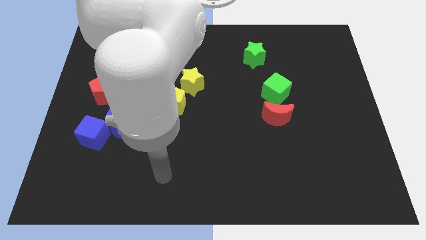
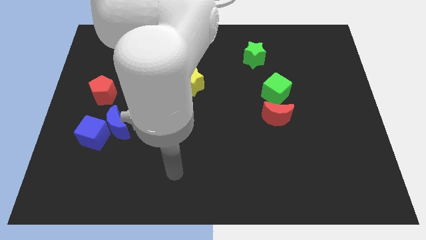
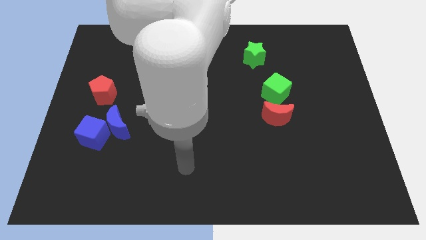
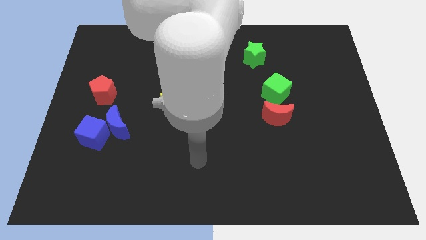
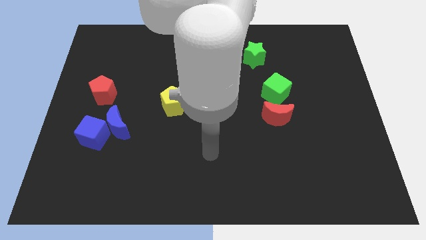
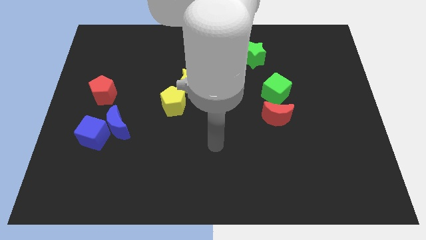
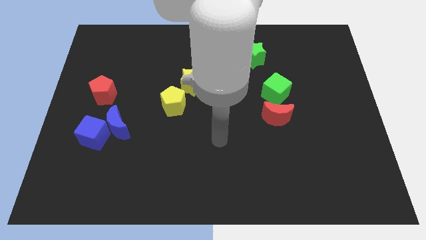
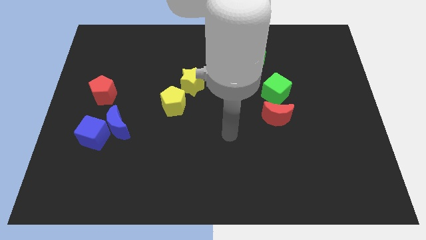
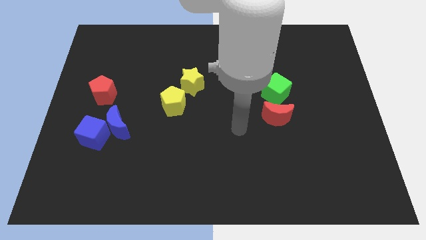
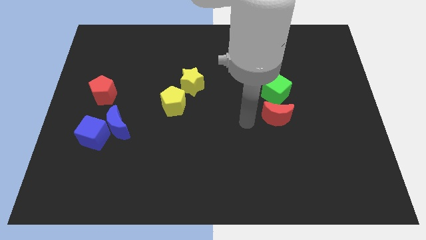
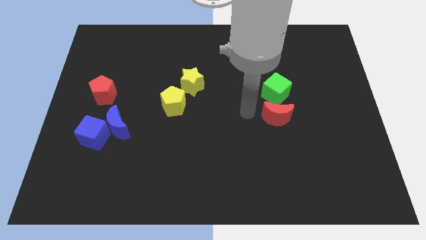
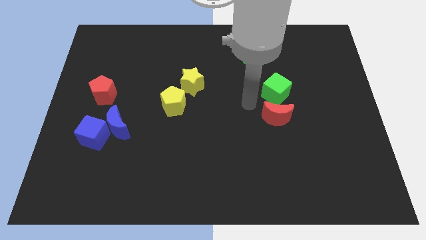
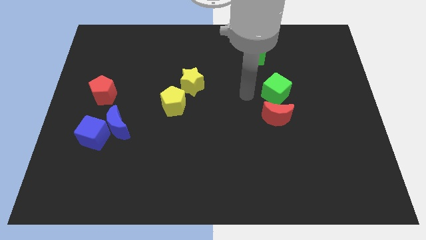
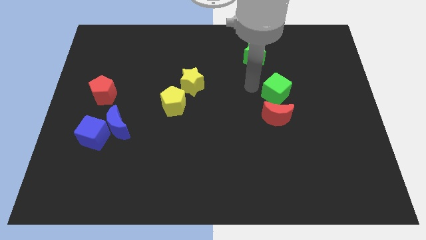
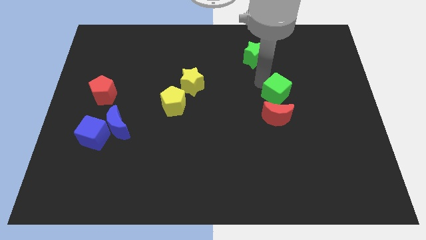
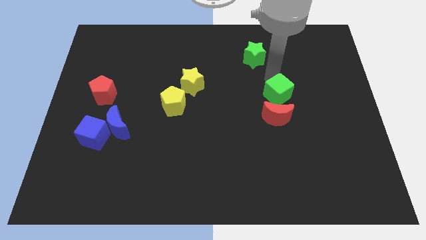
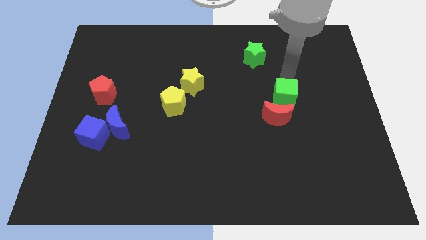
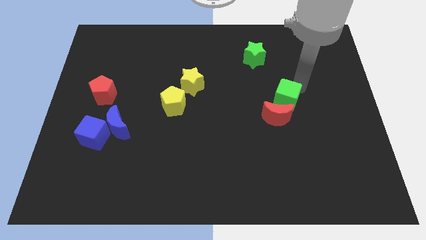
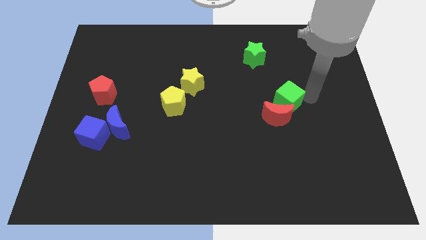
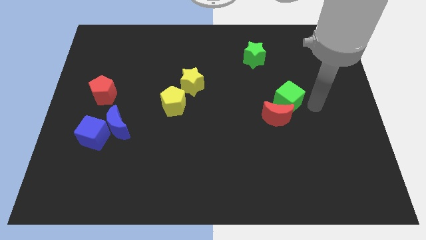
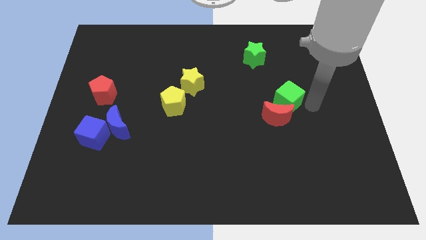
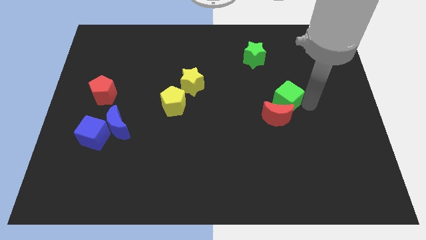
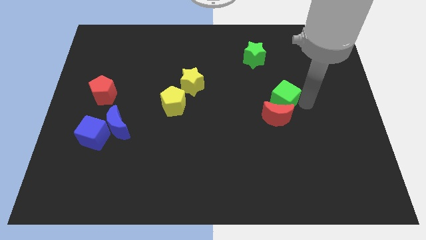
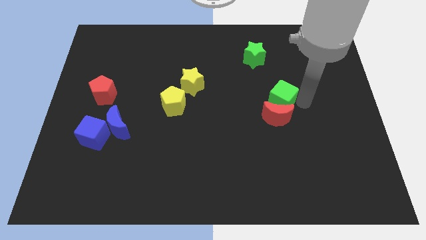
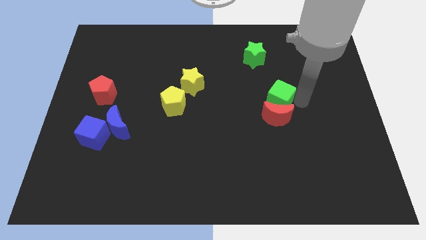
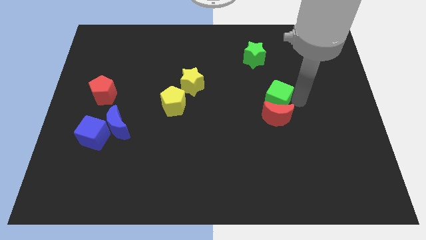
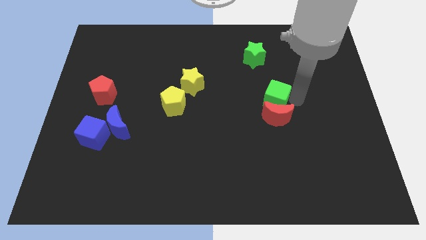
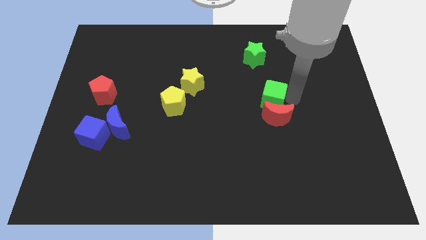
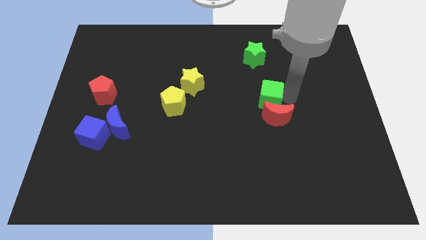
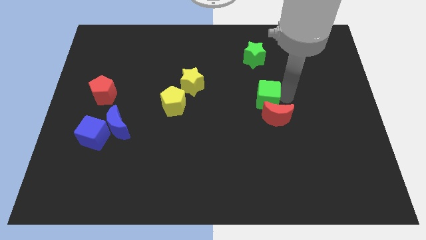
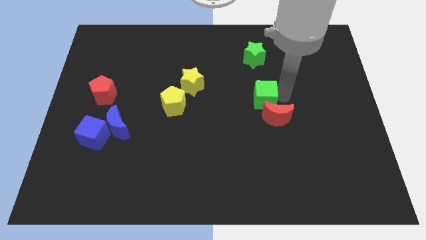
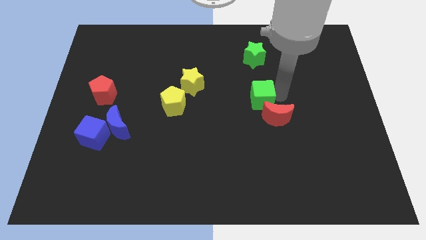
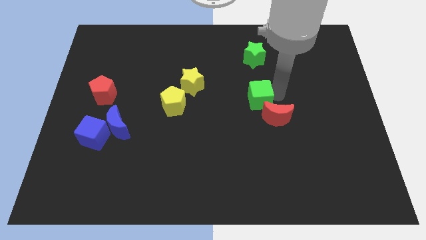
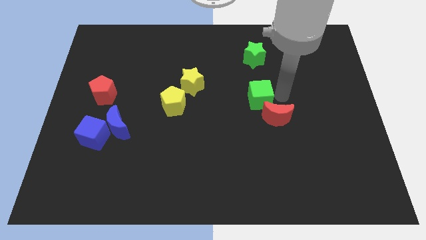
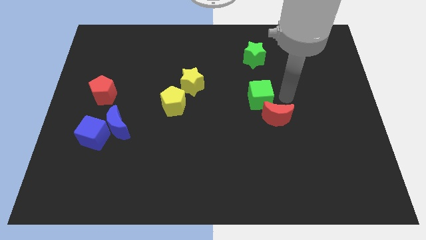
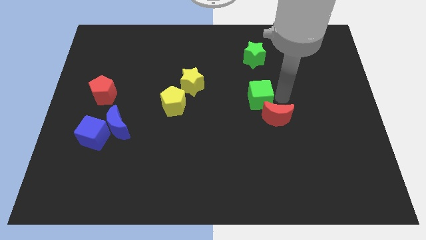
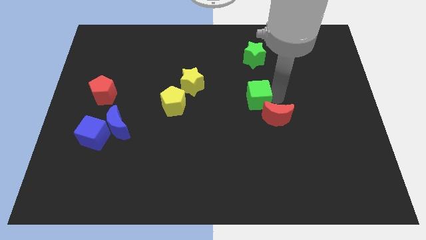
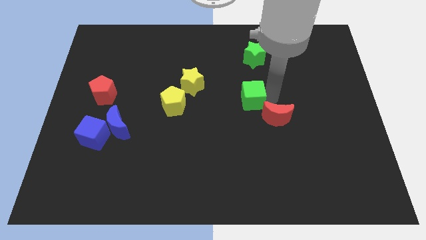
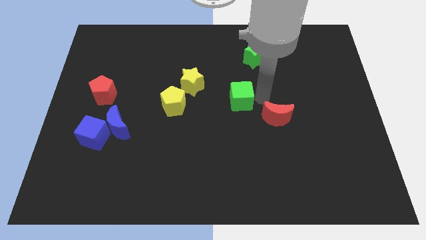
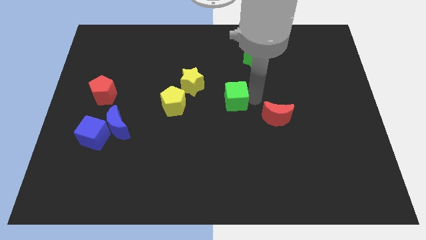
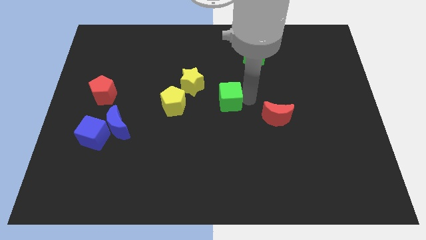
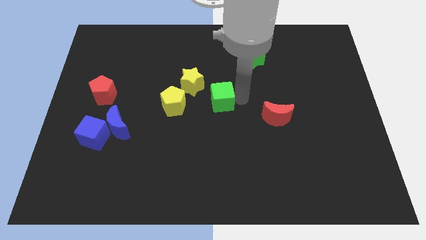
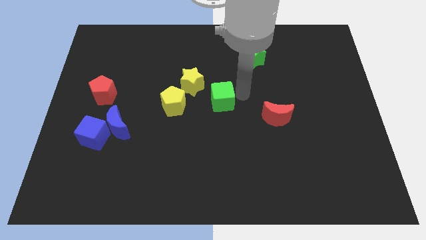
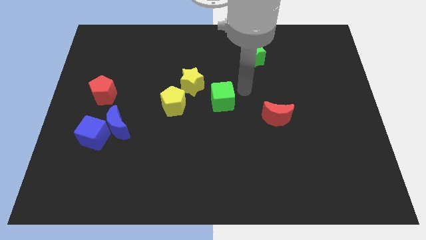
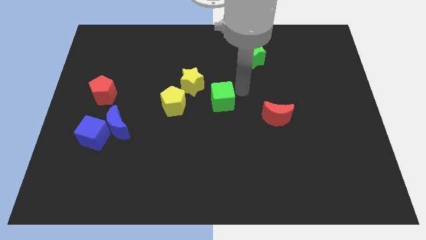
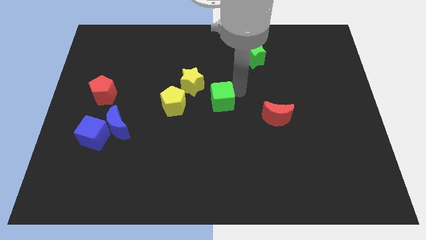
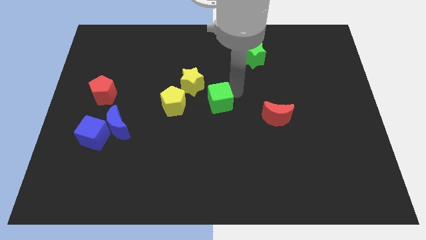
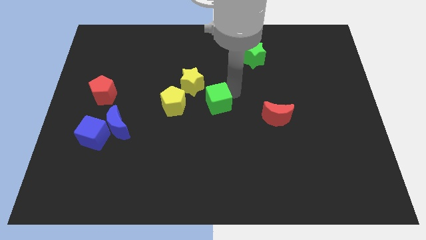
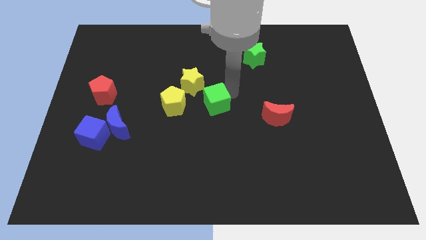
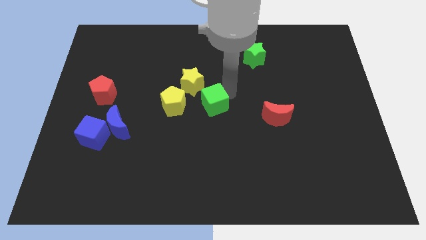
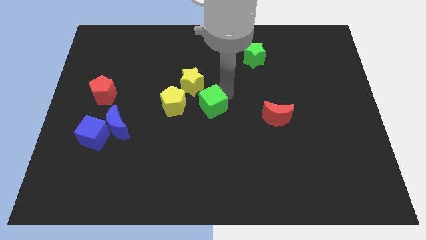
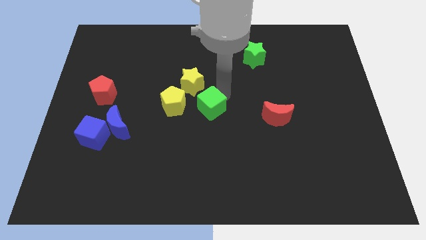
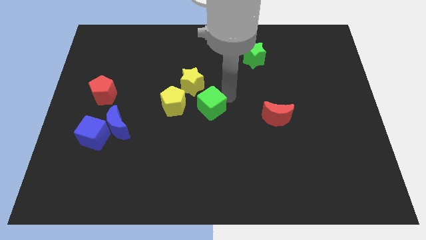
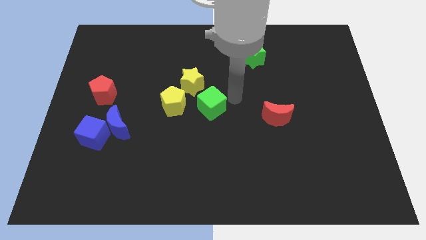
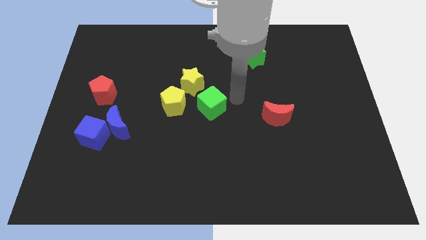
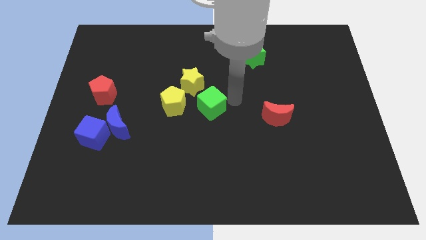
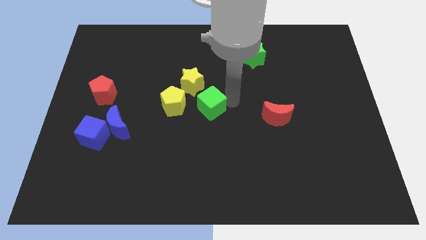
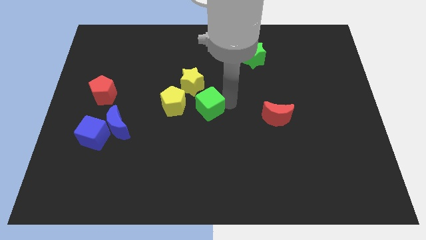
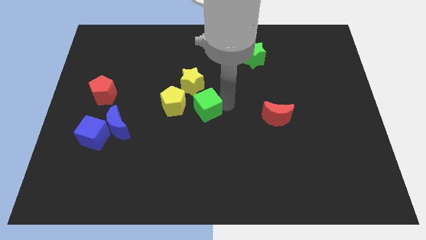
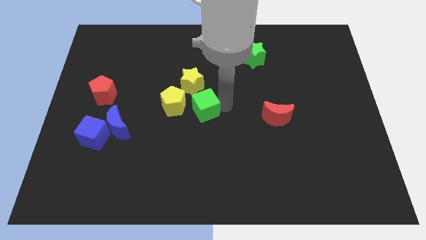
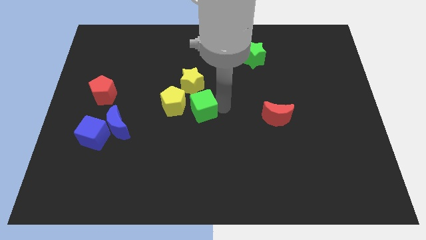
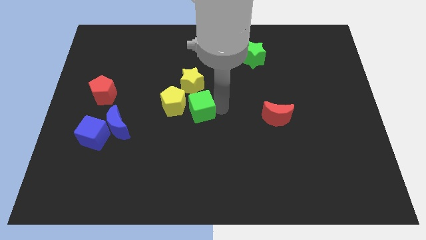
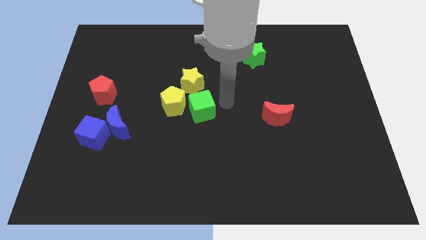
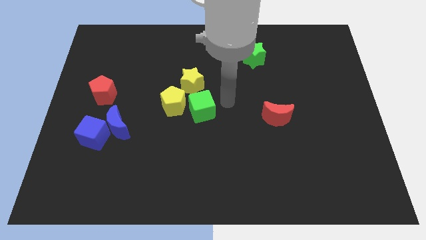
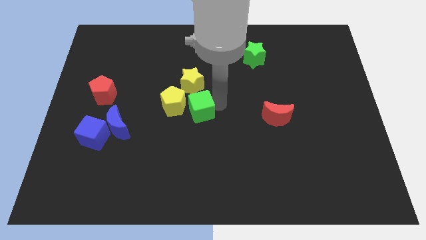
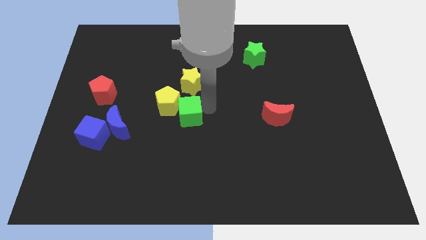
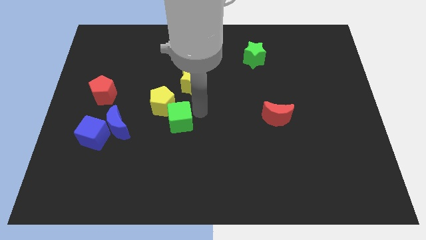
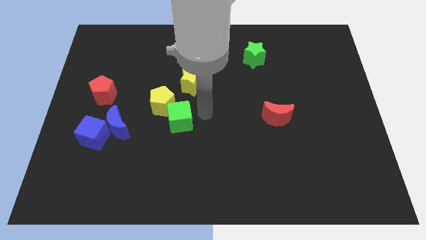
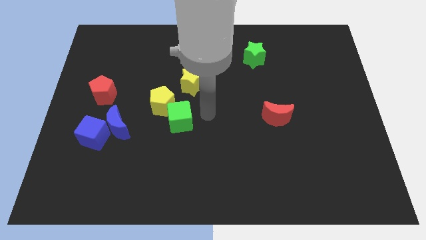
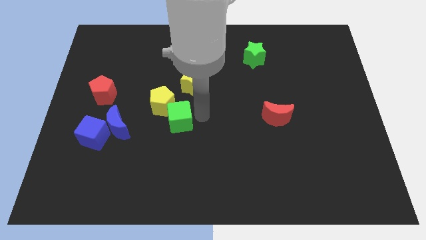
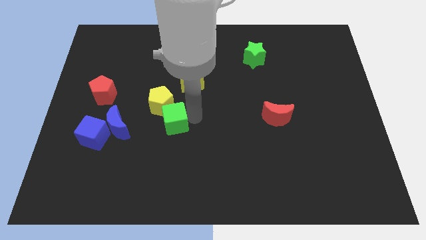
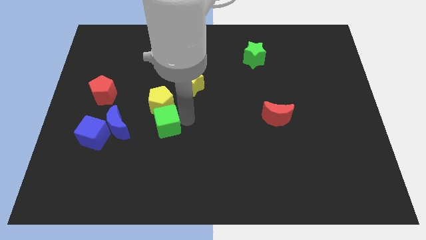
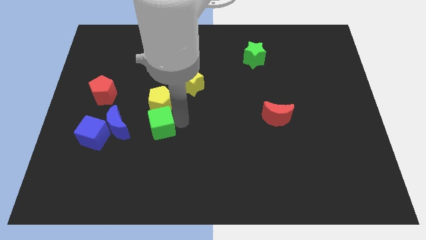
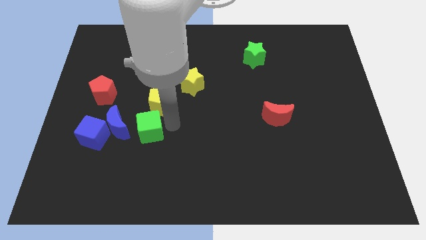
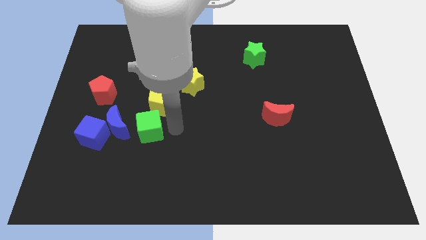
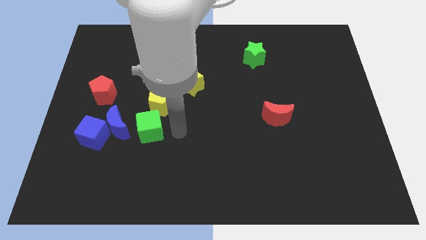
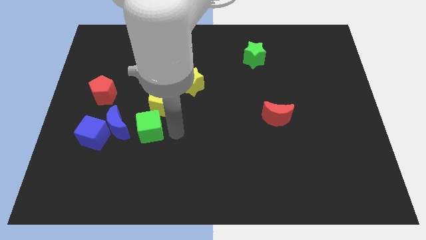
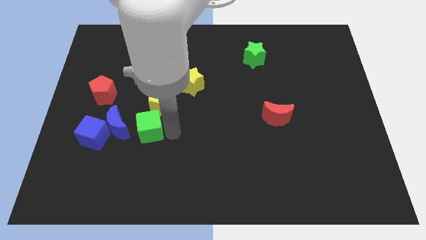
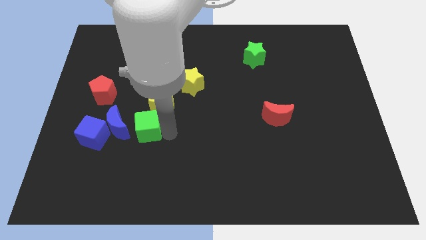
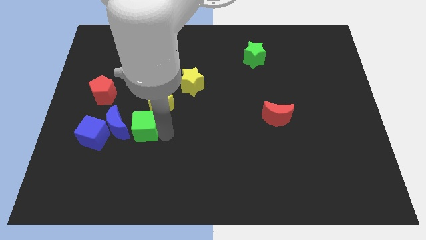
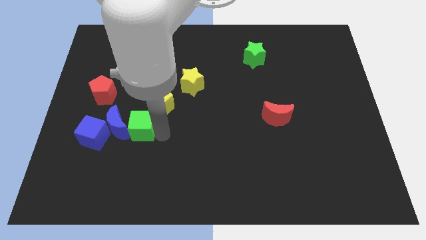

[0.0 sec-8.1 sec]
push the green cube next to the blue moon

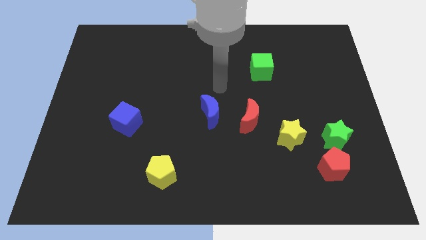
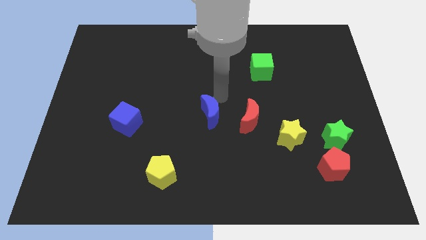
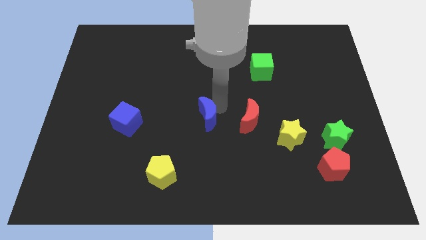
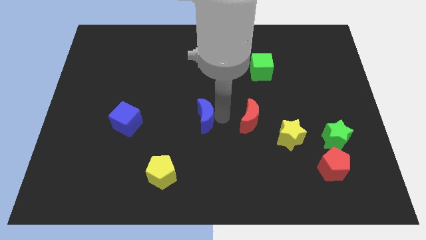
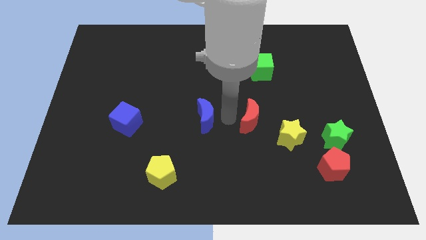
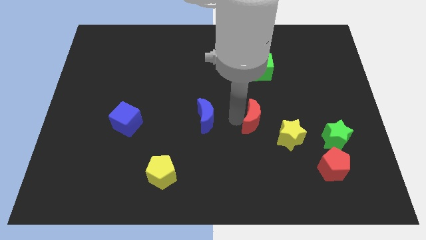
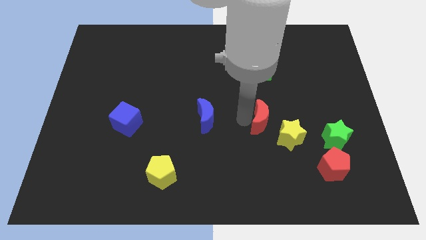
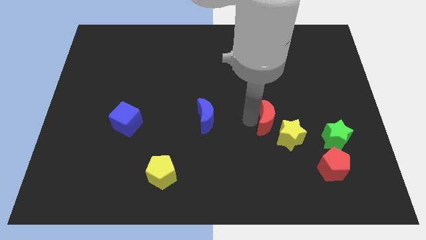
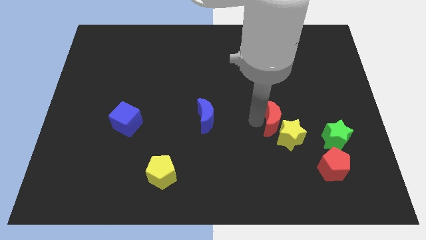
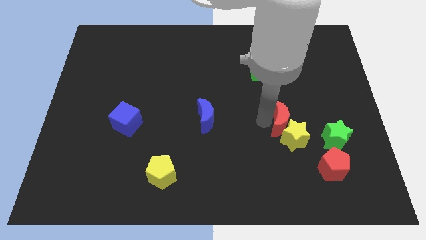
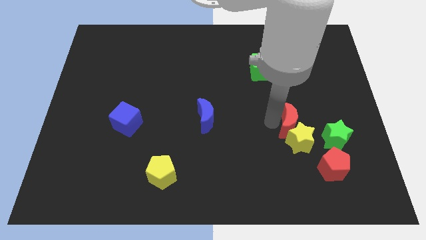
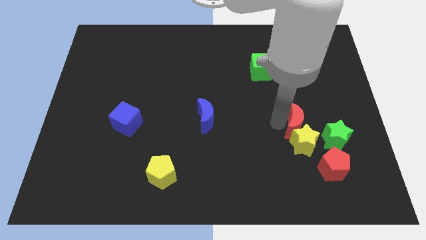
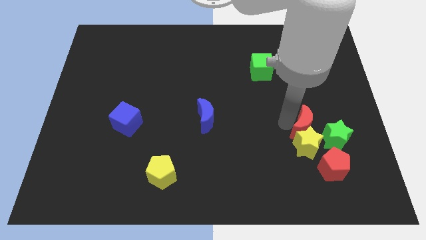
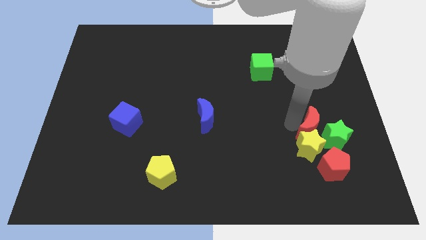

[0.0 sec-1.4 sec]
push the red moon towards the green star
